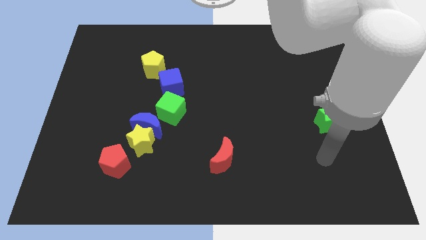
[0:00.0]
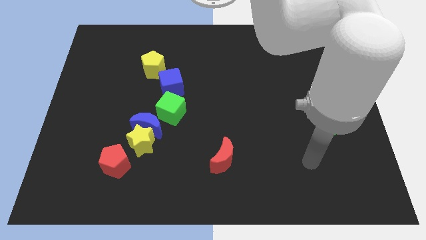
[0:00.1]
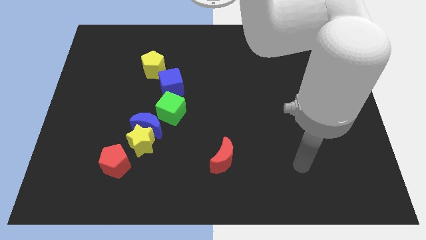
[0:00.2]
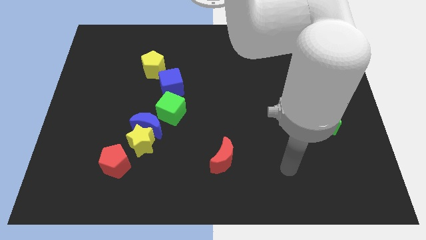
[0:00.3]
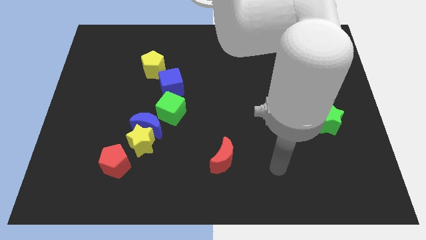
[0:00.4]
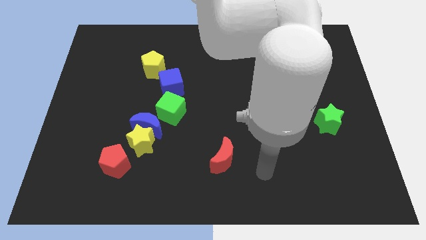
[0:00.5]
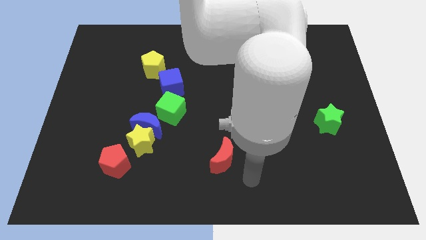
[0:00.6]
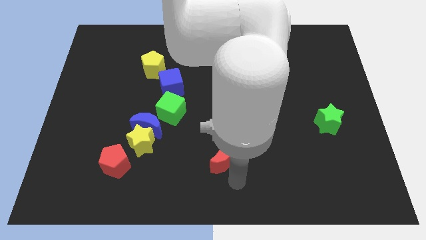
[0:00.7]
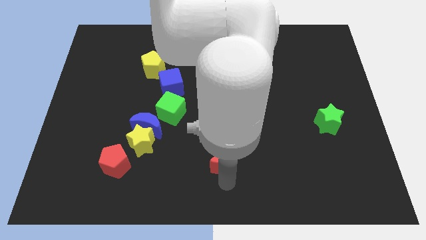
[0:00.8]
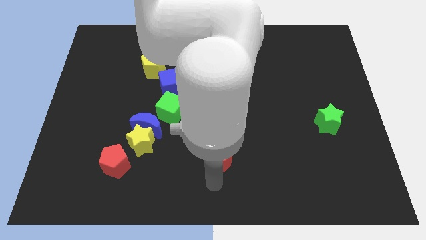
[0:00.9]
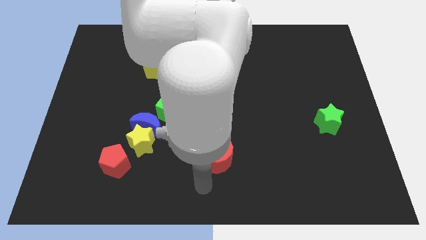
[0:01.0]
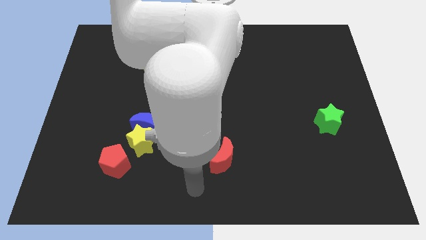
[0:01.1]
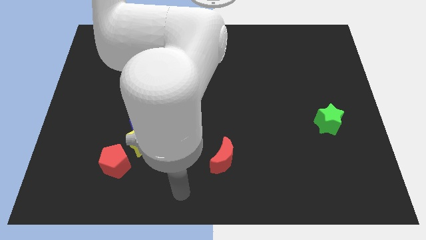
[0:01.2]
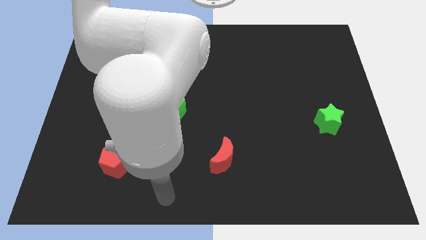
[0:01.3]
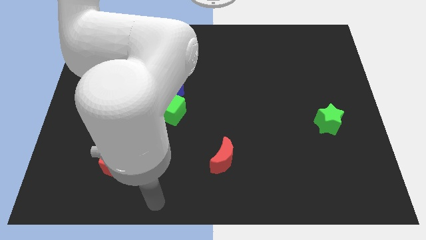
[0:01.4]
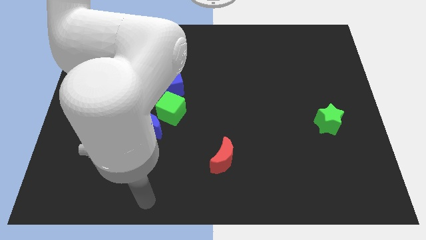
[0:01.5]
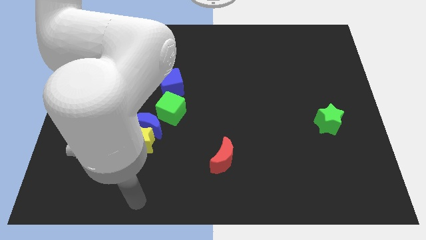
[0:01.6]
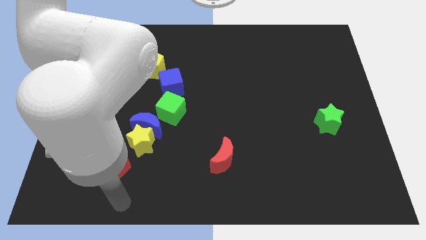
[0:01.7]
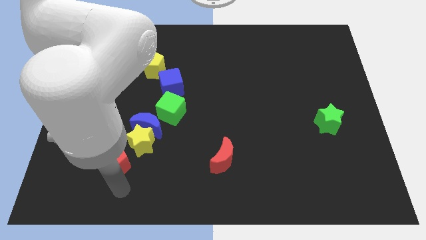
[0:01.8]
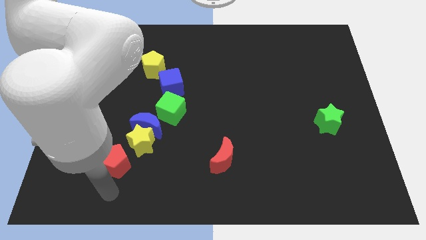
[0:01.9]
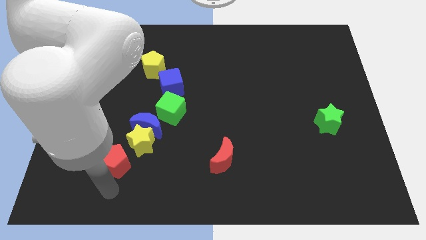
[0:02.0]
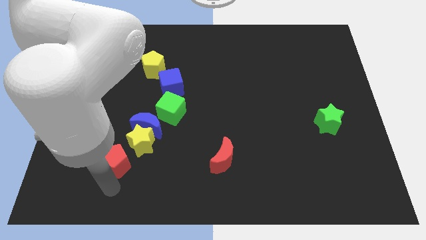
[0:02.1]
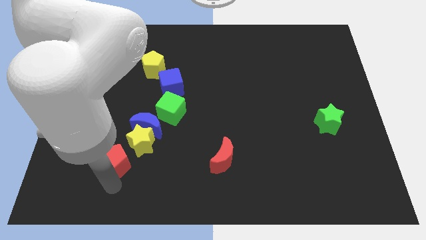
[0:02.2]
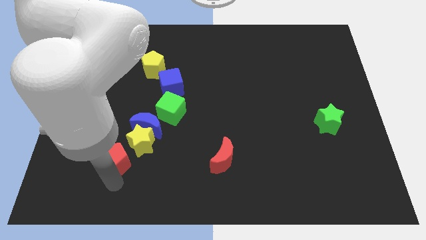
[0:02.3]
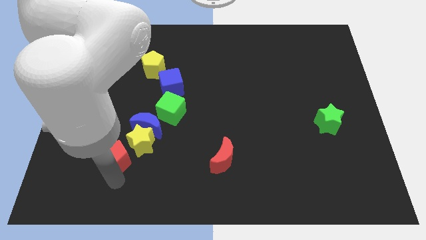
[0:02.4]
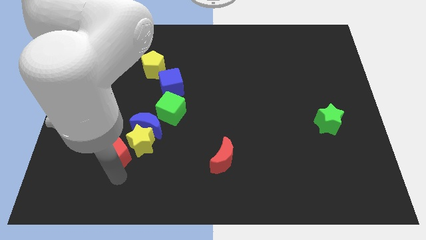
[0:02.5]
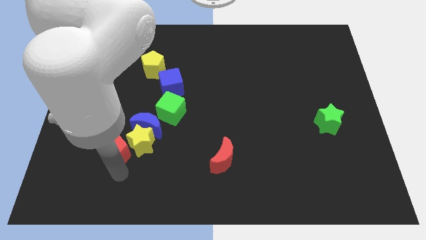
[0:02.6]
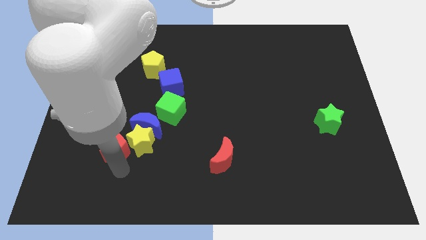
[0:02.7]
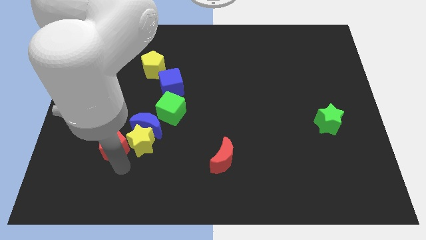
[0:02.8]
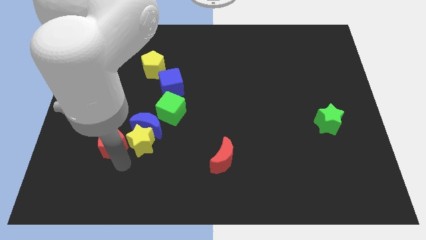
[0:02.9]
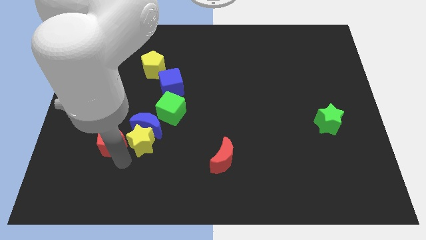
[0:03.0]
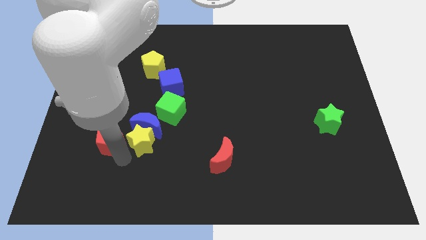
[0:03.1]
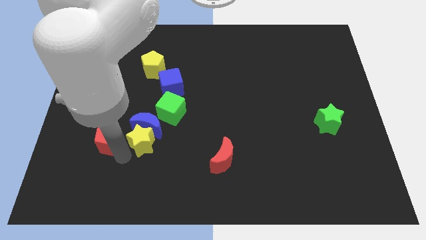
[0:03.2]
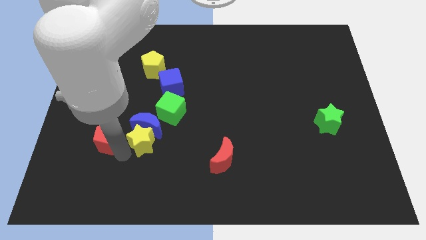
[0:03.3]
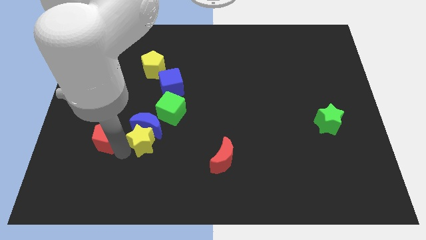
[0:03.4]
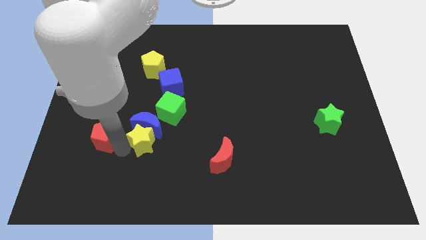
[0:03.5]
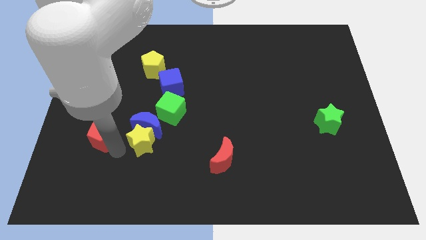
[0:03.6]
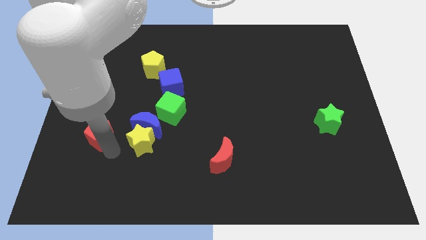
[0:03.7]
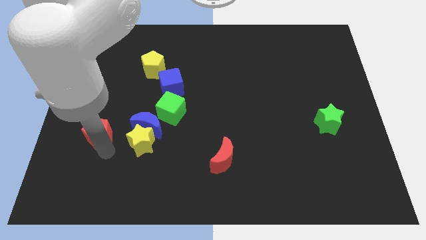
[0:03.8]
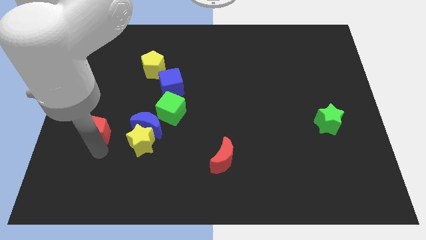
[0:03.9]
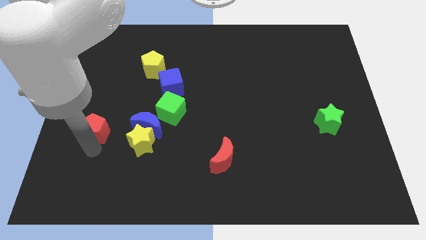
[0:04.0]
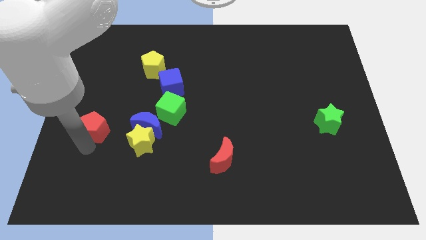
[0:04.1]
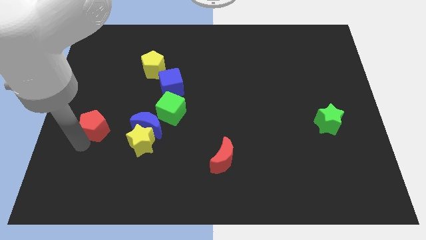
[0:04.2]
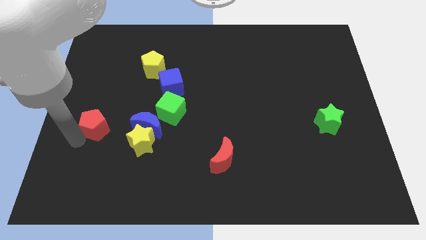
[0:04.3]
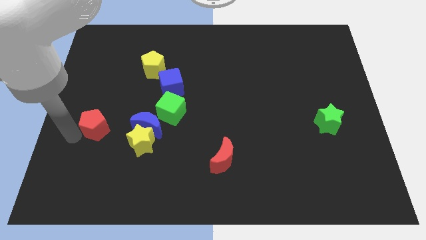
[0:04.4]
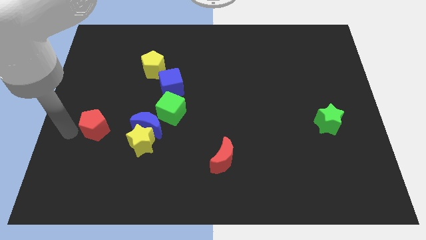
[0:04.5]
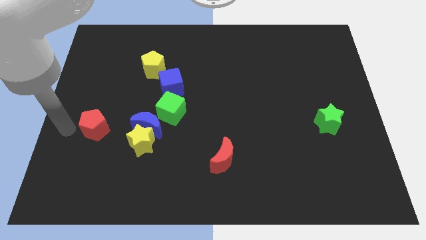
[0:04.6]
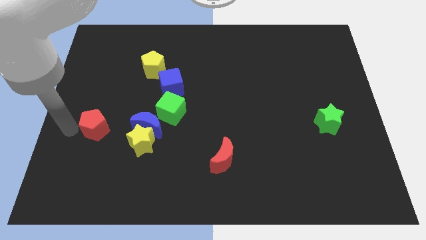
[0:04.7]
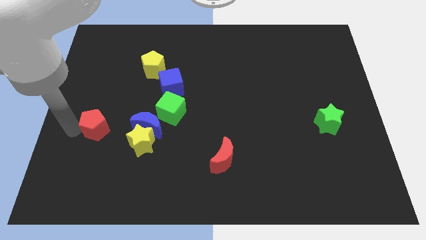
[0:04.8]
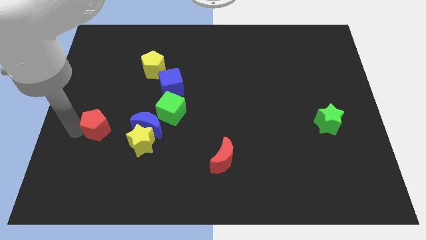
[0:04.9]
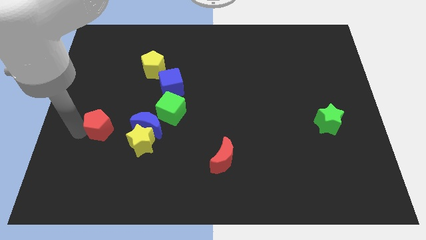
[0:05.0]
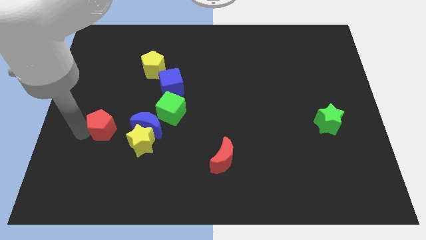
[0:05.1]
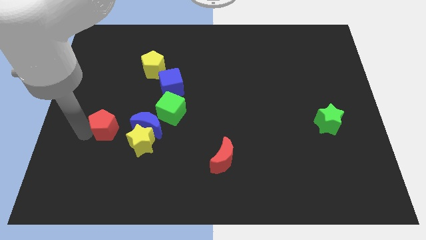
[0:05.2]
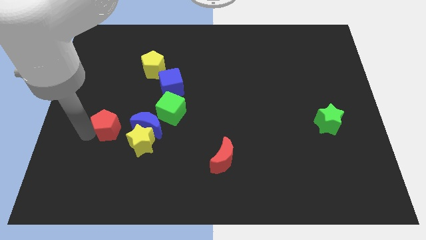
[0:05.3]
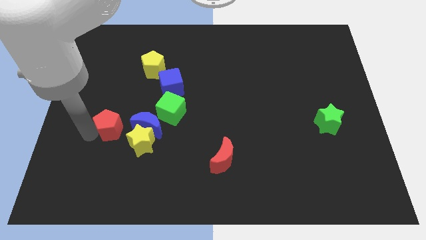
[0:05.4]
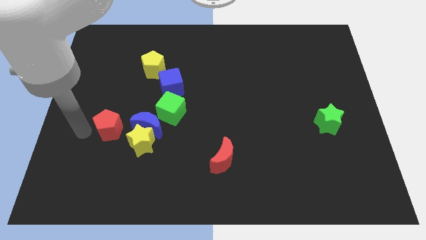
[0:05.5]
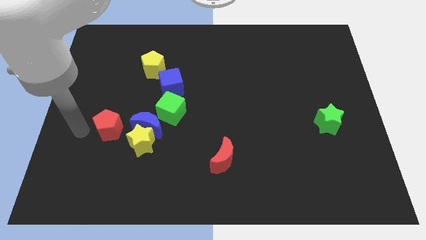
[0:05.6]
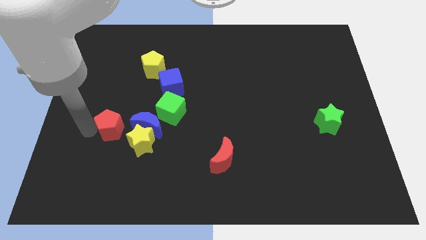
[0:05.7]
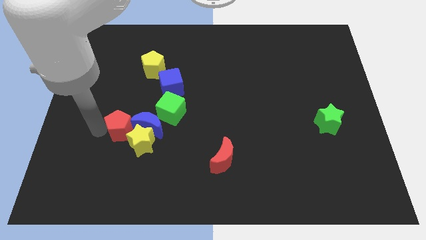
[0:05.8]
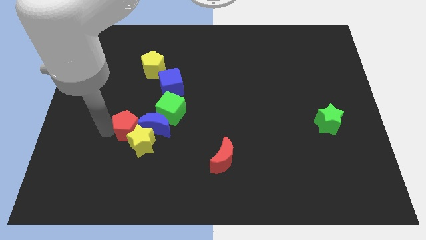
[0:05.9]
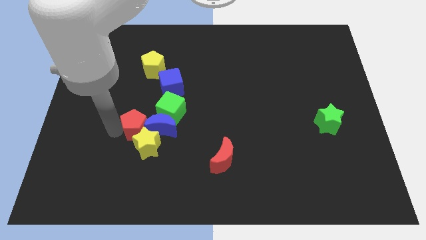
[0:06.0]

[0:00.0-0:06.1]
slide the red pentagon towards the blue moon

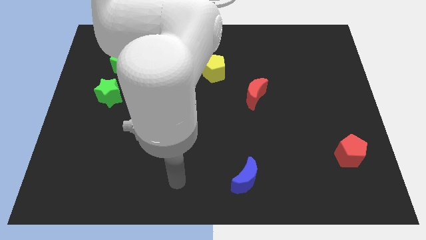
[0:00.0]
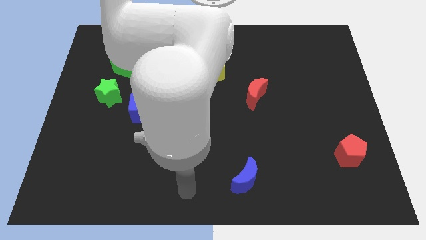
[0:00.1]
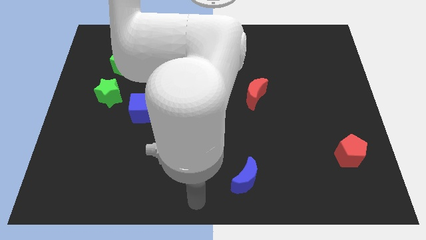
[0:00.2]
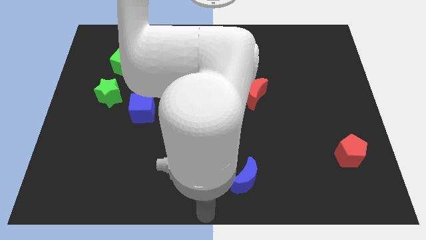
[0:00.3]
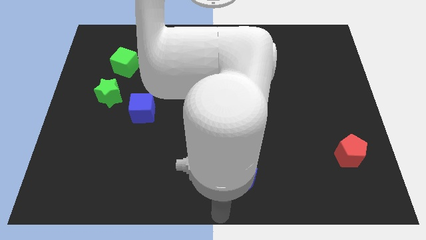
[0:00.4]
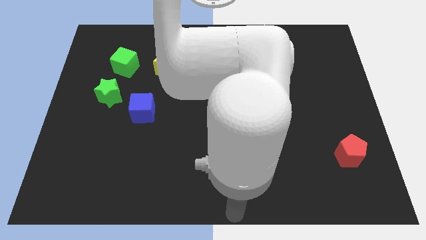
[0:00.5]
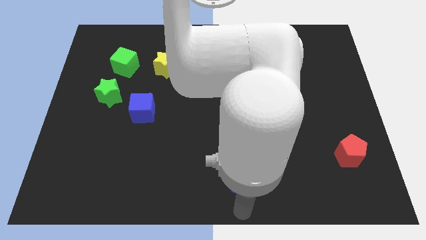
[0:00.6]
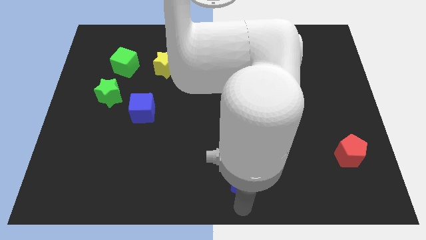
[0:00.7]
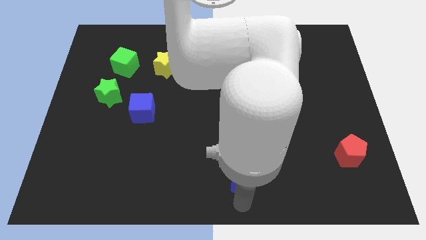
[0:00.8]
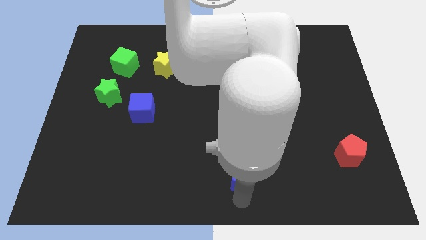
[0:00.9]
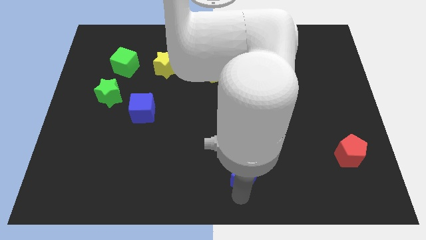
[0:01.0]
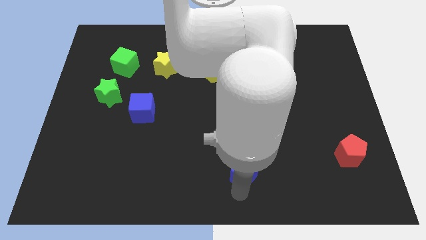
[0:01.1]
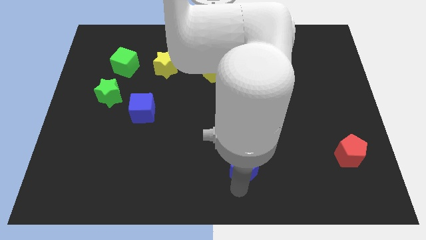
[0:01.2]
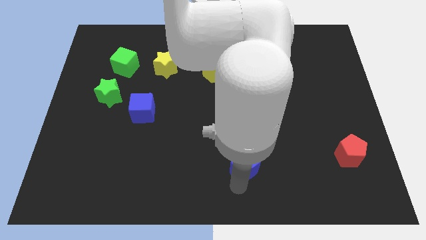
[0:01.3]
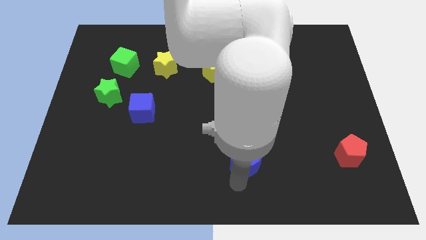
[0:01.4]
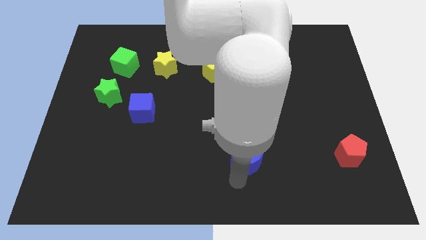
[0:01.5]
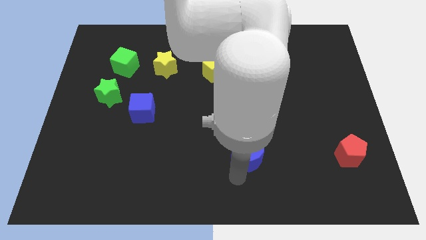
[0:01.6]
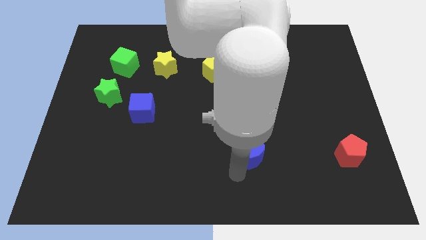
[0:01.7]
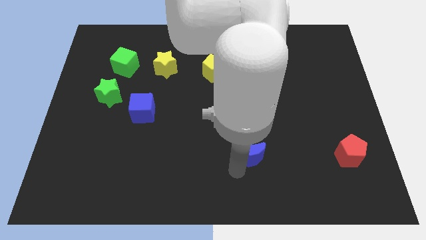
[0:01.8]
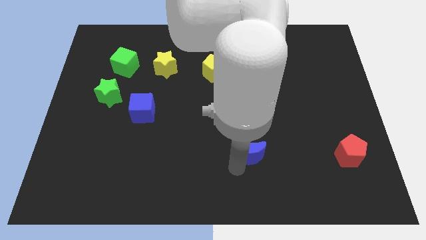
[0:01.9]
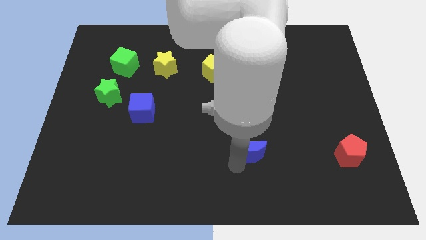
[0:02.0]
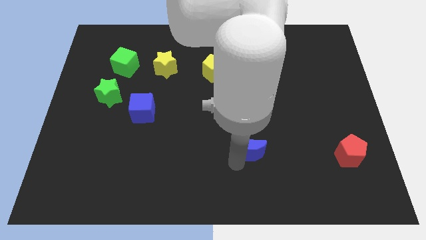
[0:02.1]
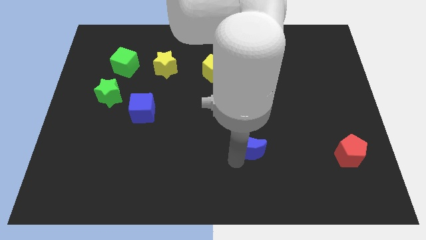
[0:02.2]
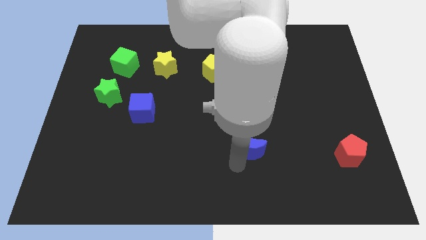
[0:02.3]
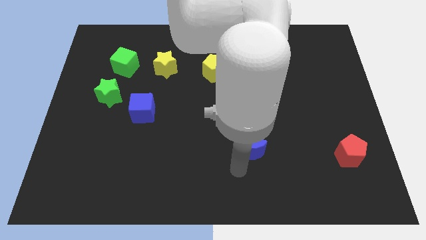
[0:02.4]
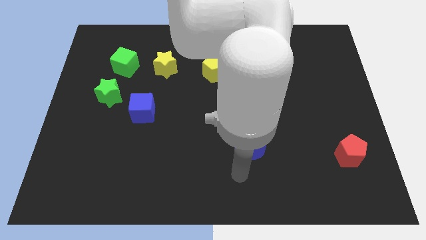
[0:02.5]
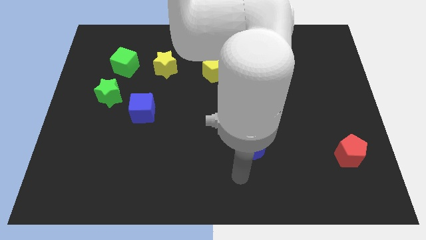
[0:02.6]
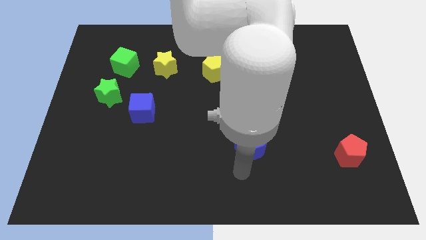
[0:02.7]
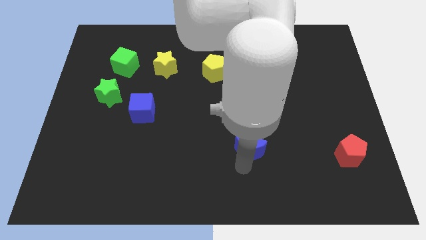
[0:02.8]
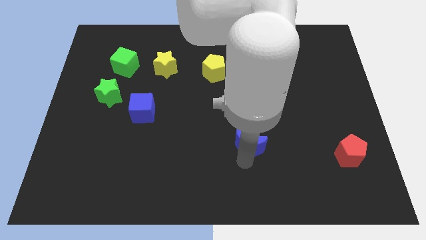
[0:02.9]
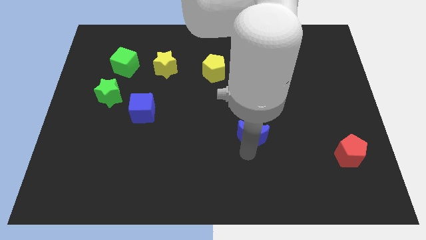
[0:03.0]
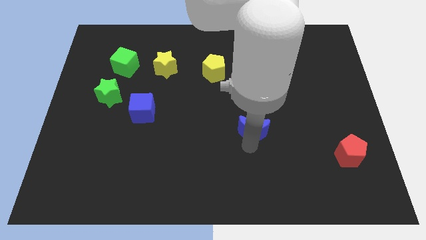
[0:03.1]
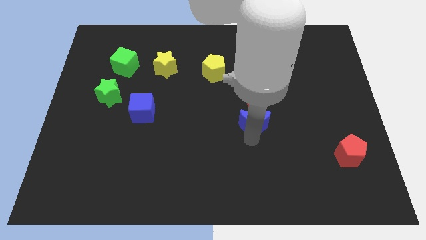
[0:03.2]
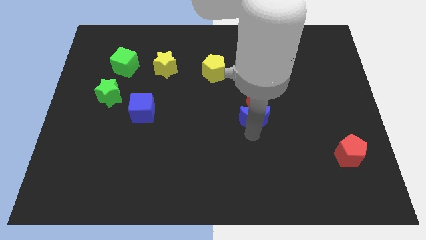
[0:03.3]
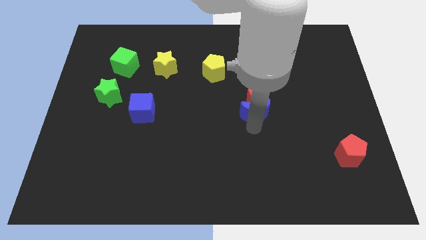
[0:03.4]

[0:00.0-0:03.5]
push the blue moon to the red moon
